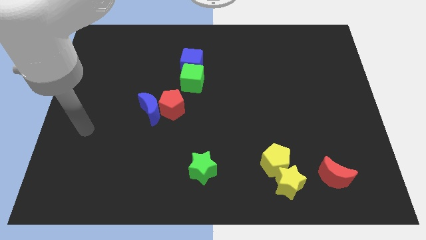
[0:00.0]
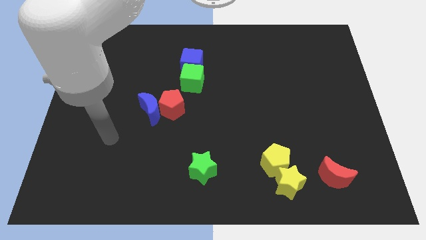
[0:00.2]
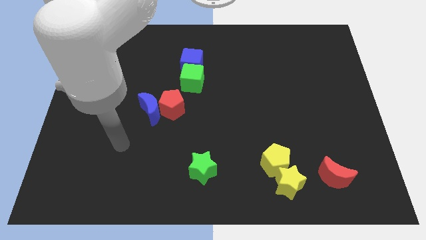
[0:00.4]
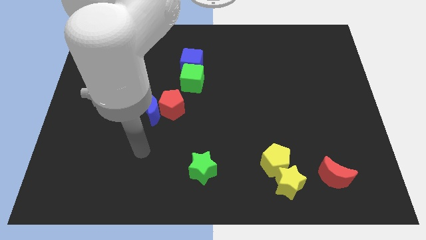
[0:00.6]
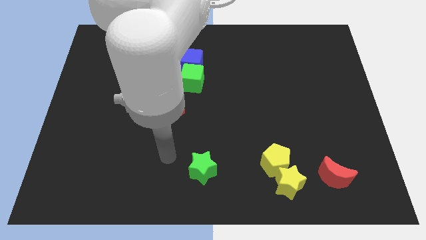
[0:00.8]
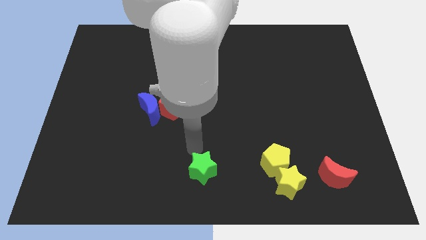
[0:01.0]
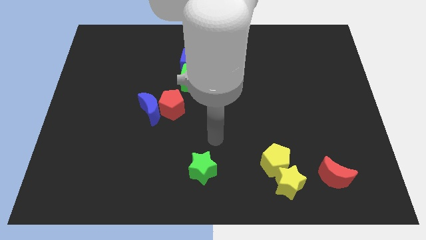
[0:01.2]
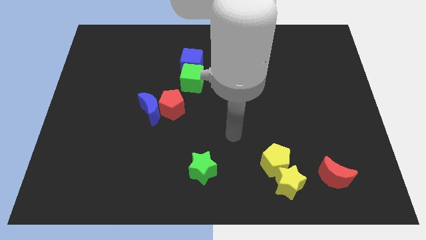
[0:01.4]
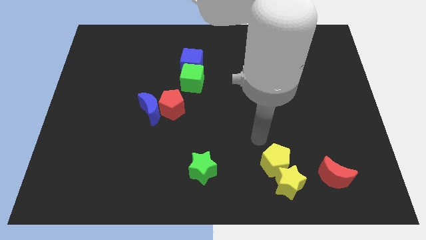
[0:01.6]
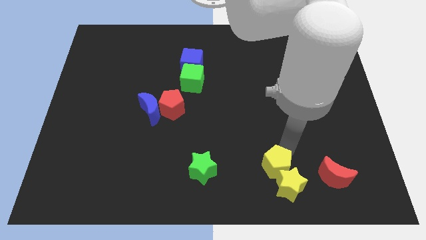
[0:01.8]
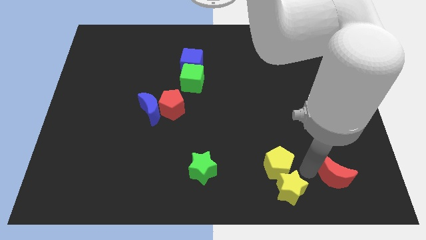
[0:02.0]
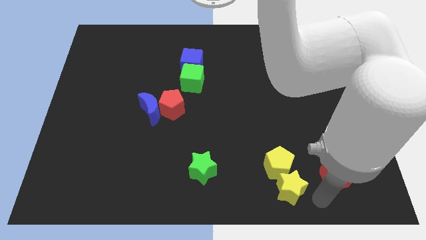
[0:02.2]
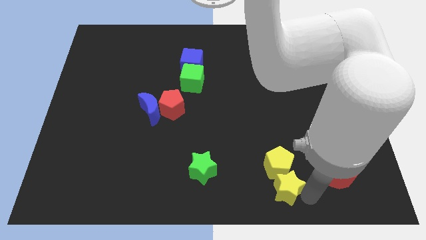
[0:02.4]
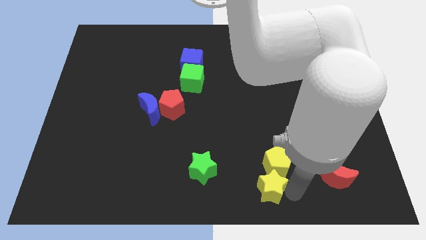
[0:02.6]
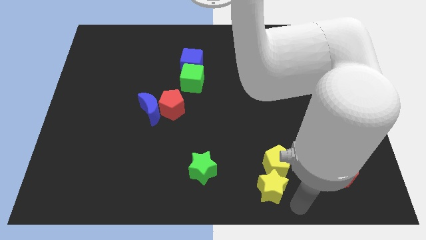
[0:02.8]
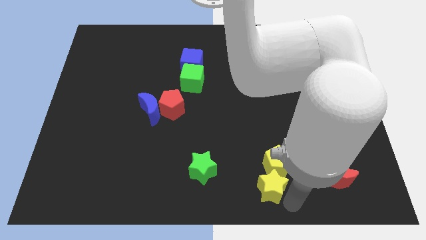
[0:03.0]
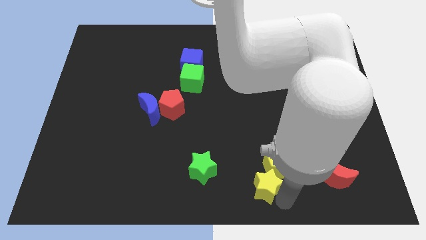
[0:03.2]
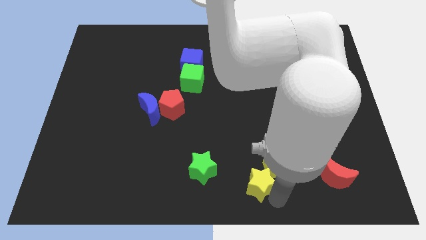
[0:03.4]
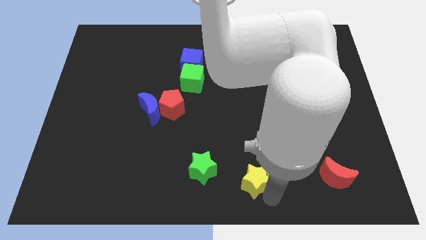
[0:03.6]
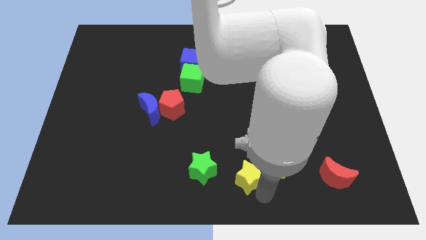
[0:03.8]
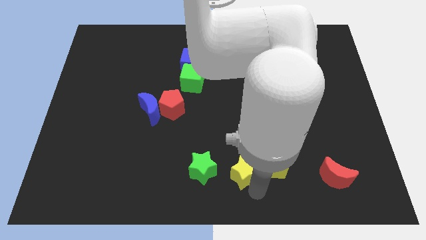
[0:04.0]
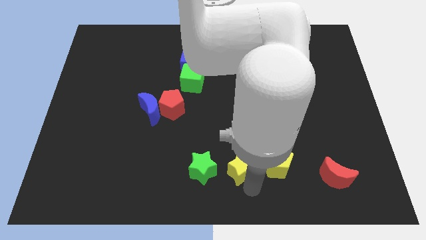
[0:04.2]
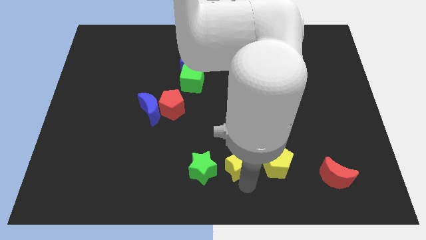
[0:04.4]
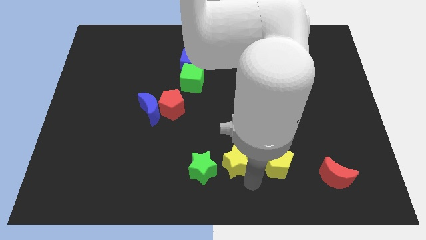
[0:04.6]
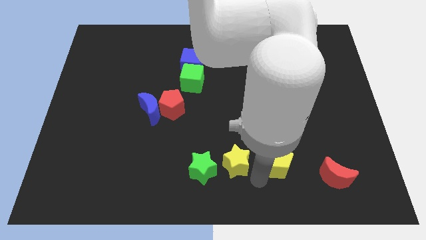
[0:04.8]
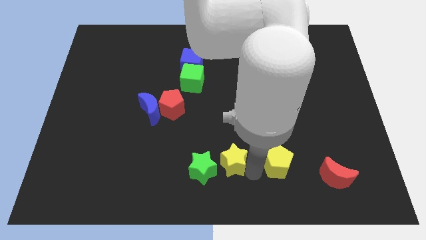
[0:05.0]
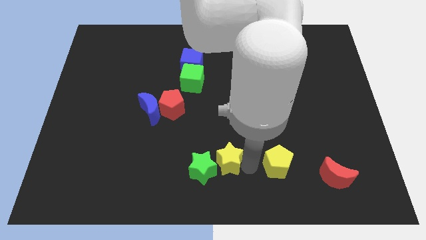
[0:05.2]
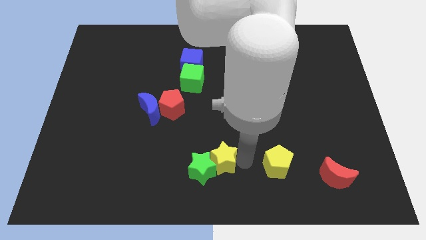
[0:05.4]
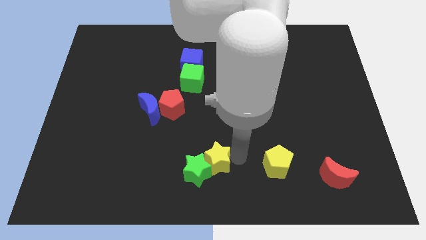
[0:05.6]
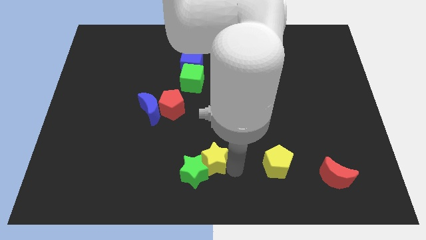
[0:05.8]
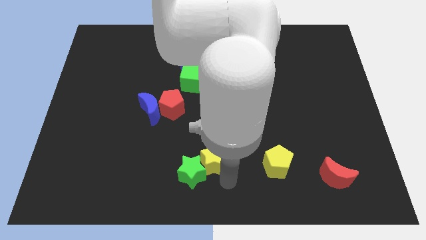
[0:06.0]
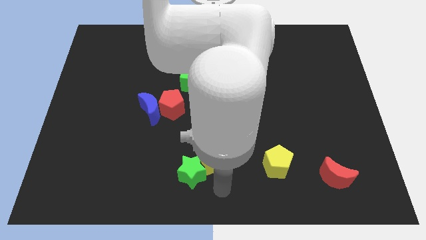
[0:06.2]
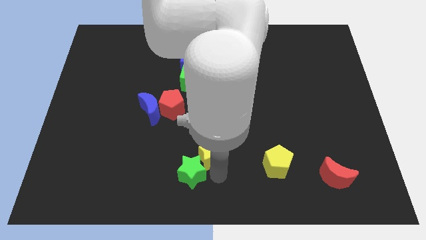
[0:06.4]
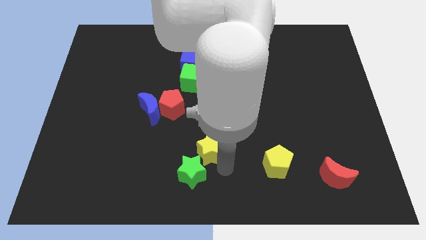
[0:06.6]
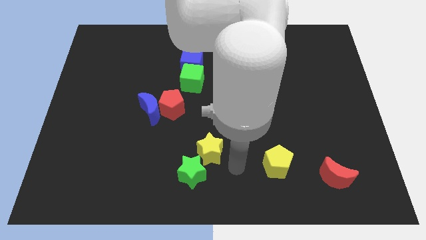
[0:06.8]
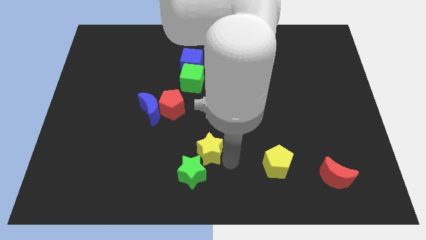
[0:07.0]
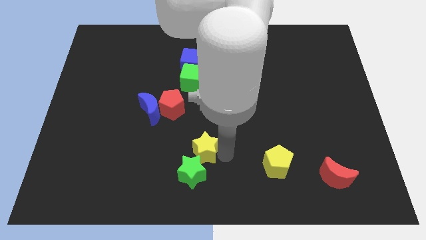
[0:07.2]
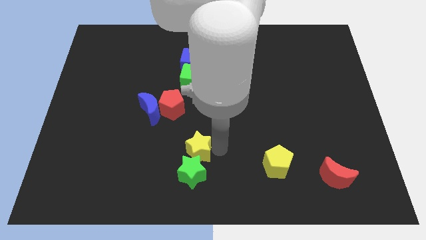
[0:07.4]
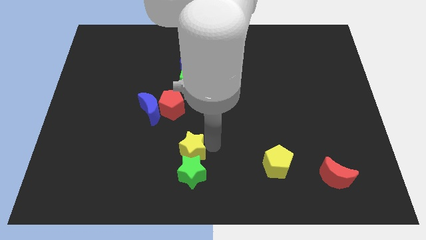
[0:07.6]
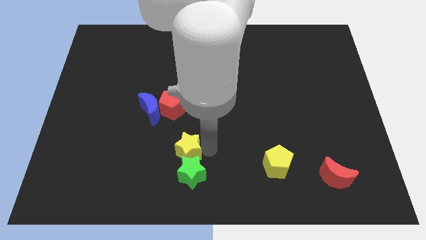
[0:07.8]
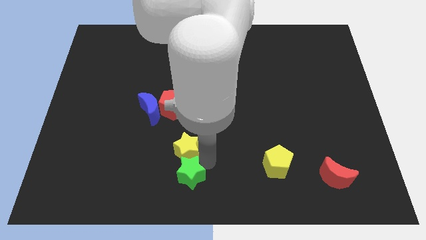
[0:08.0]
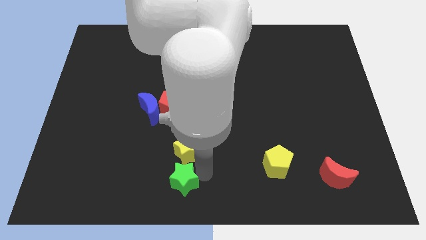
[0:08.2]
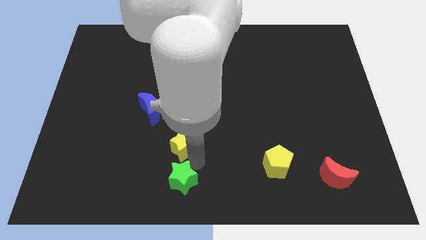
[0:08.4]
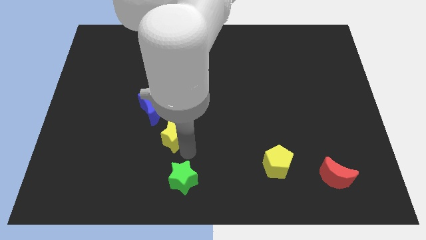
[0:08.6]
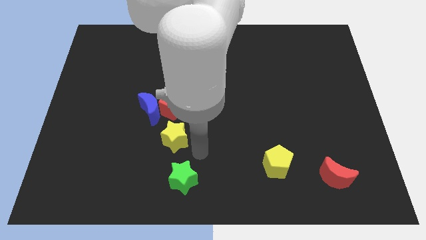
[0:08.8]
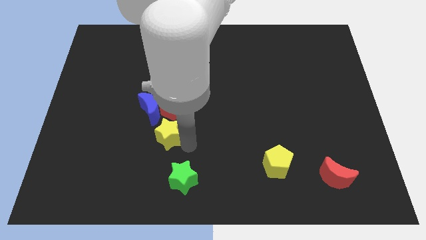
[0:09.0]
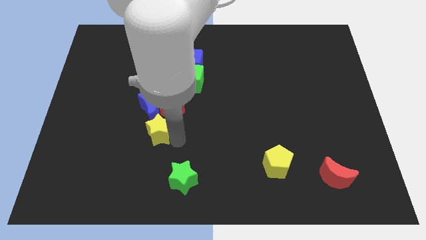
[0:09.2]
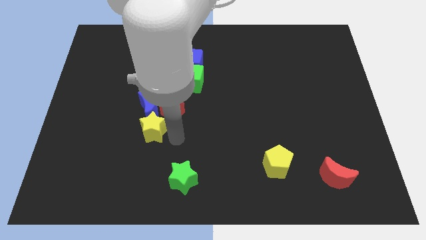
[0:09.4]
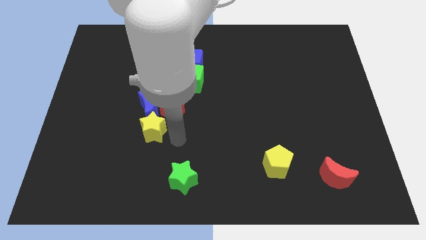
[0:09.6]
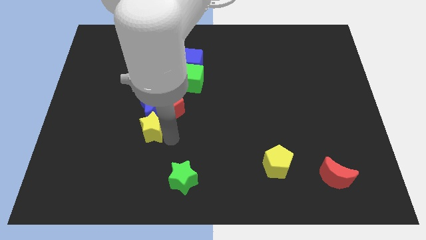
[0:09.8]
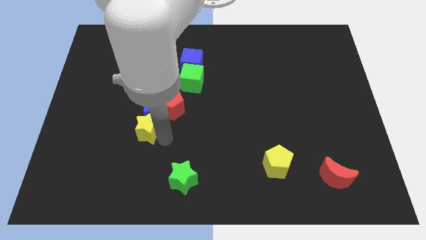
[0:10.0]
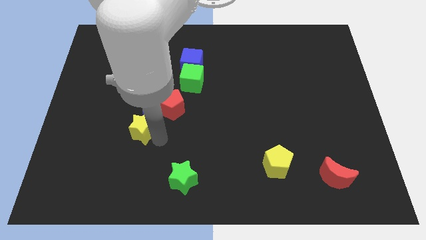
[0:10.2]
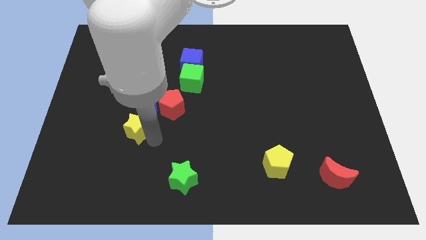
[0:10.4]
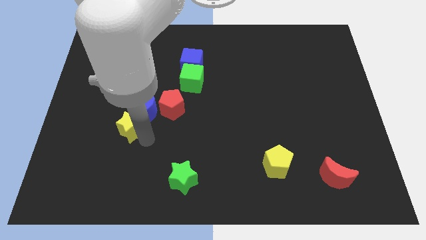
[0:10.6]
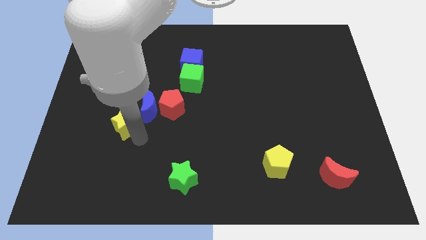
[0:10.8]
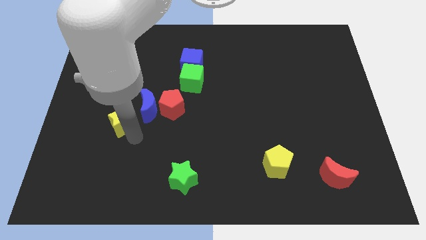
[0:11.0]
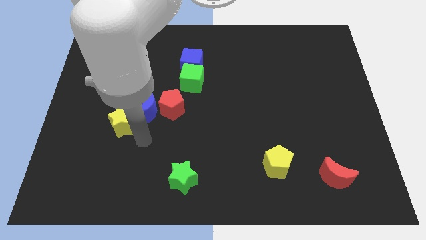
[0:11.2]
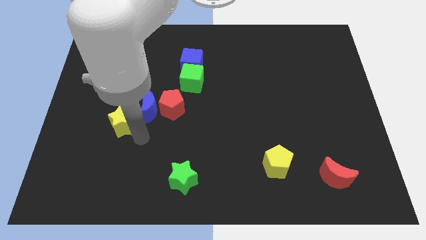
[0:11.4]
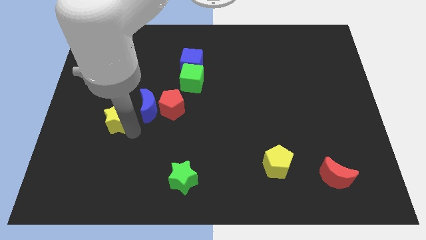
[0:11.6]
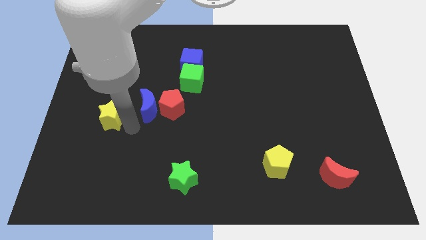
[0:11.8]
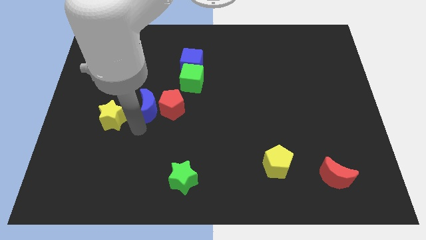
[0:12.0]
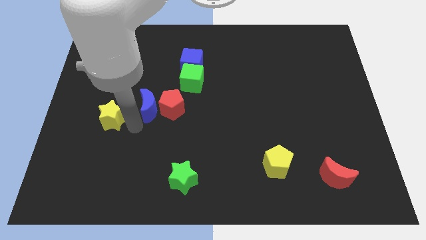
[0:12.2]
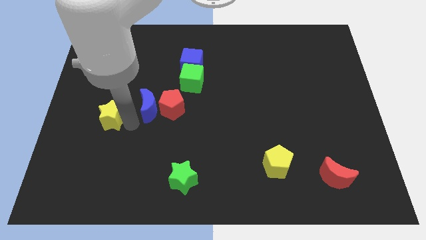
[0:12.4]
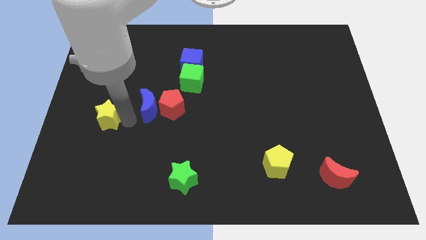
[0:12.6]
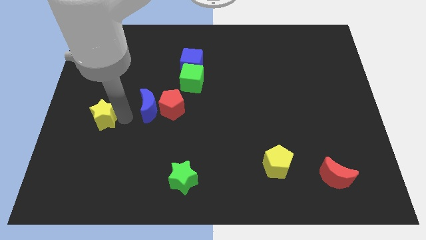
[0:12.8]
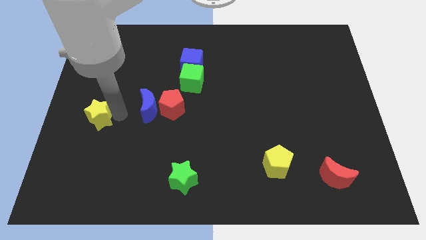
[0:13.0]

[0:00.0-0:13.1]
push the yellow star to the left side
